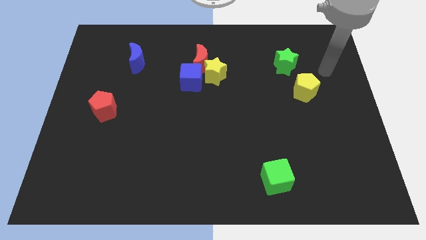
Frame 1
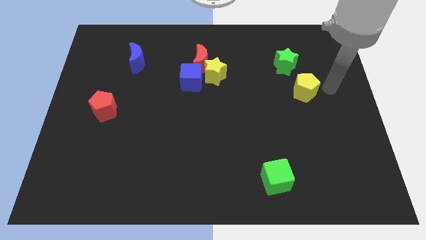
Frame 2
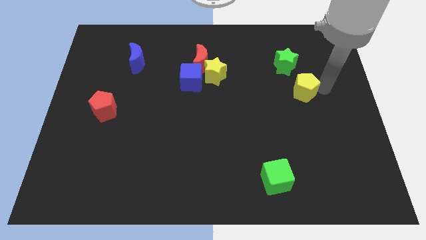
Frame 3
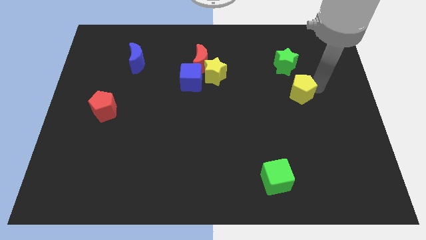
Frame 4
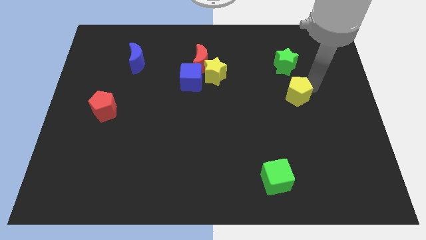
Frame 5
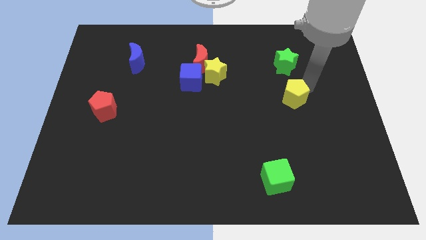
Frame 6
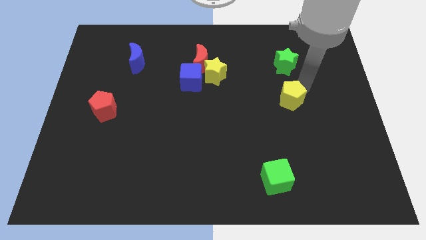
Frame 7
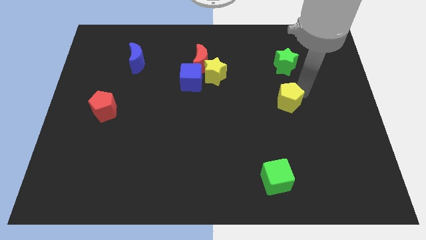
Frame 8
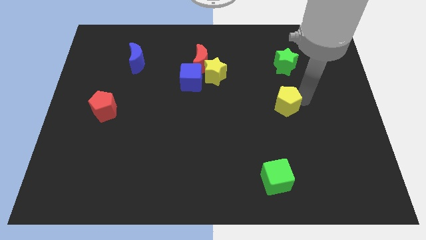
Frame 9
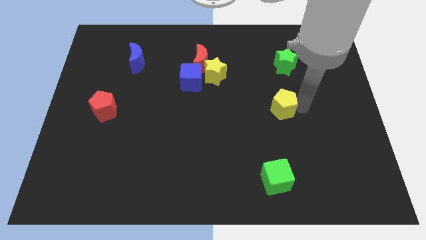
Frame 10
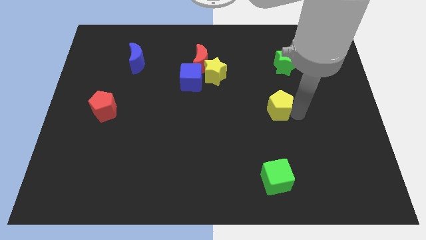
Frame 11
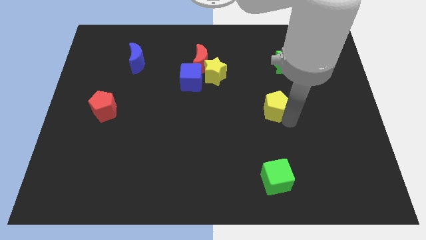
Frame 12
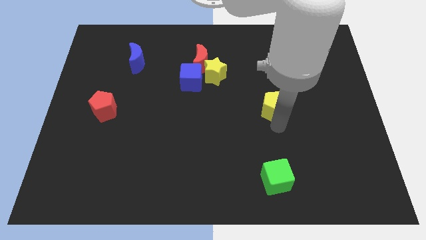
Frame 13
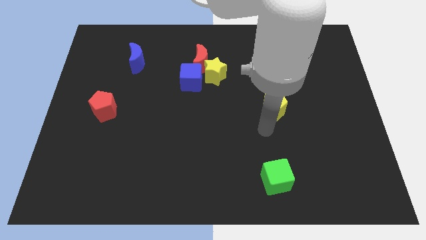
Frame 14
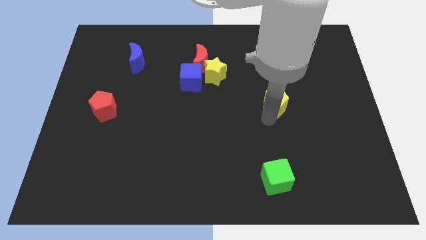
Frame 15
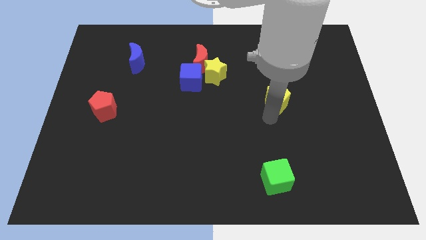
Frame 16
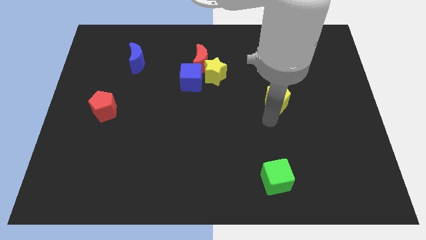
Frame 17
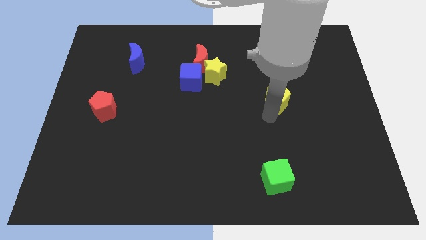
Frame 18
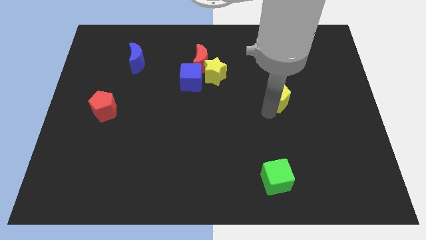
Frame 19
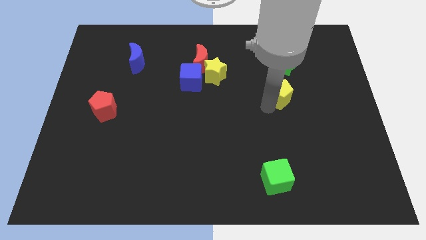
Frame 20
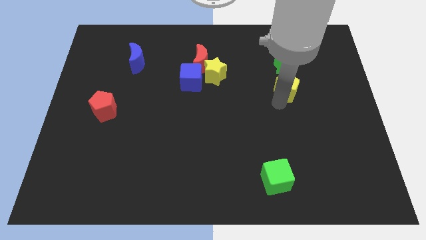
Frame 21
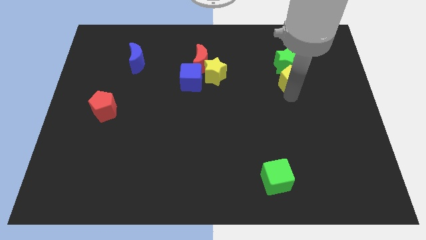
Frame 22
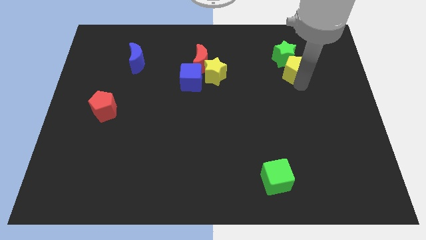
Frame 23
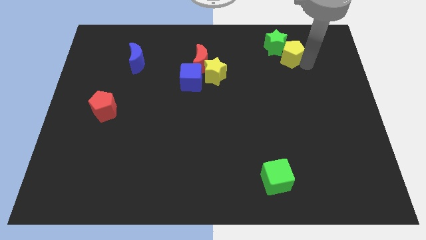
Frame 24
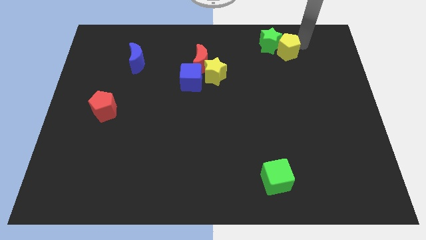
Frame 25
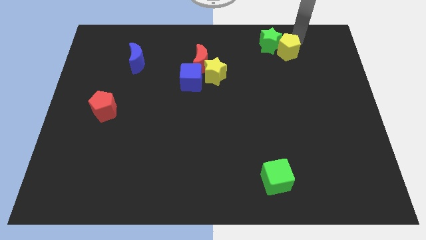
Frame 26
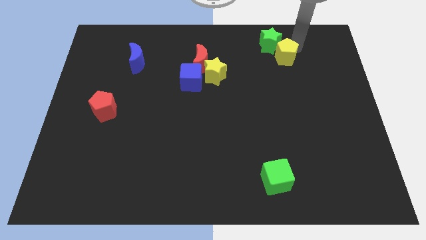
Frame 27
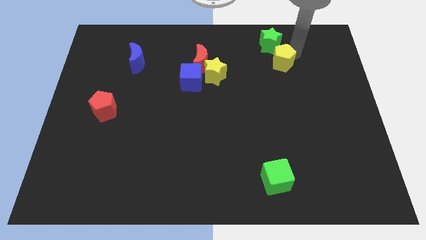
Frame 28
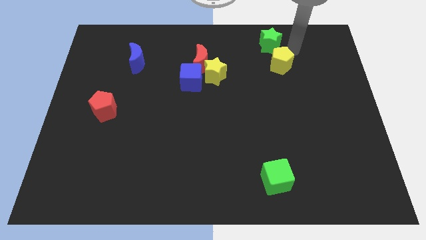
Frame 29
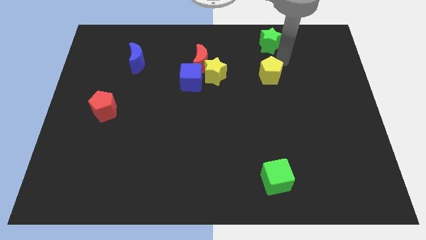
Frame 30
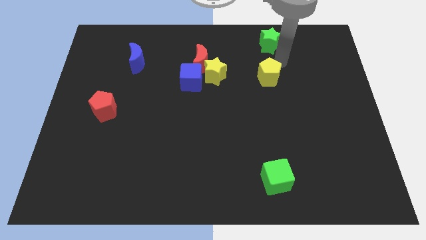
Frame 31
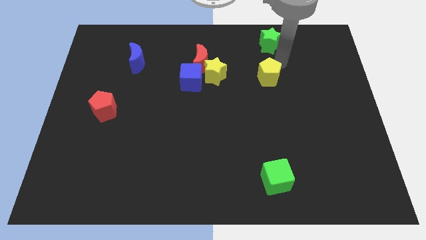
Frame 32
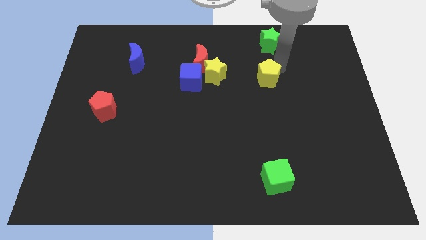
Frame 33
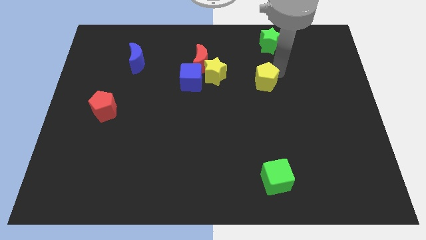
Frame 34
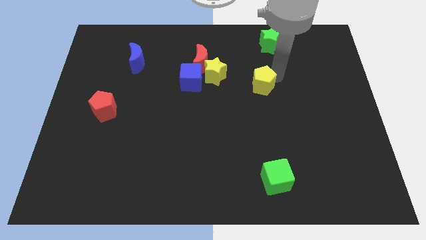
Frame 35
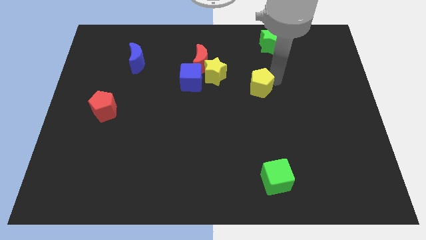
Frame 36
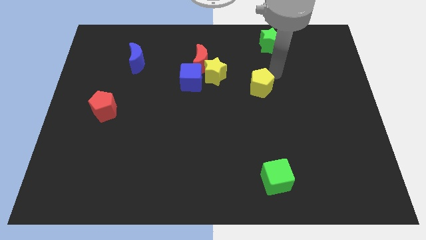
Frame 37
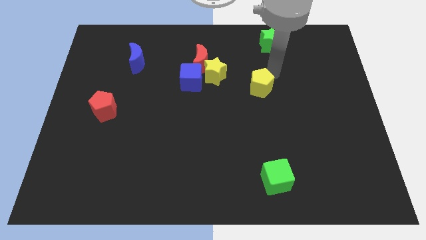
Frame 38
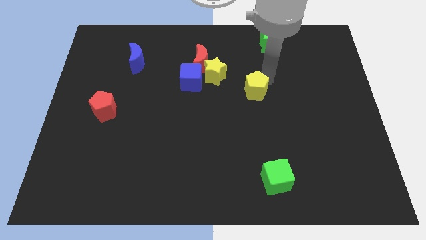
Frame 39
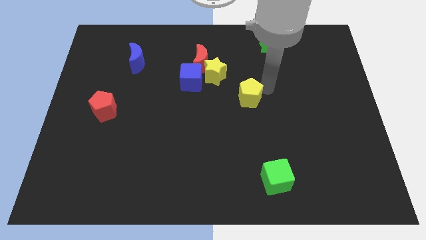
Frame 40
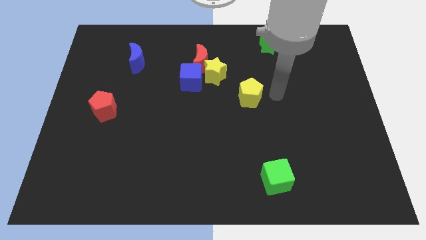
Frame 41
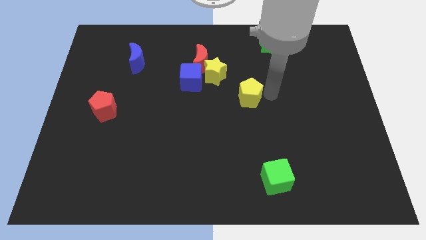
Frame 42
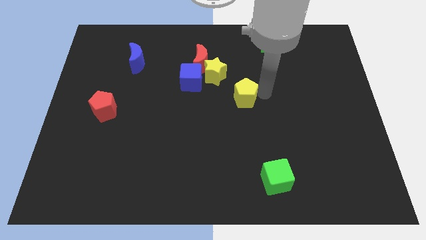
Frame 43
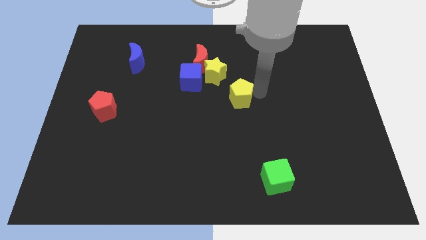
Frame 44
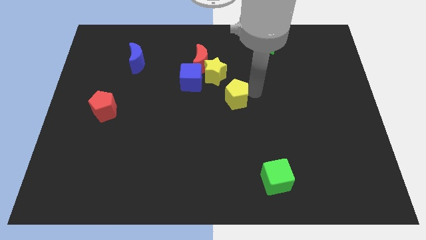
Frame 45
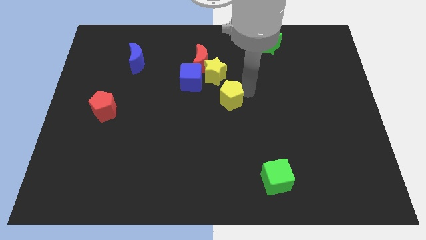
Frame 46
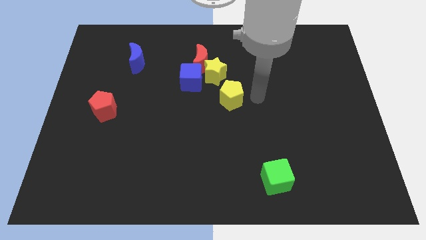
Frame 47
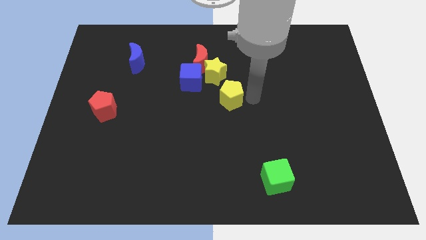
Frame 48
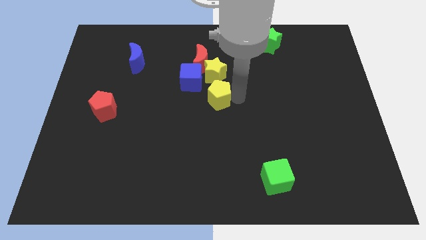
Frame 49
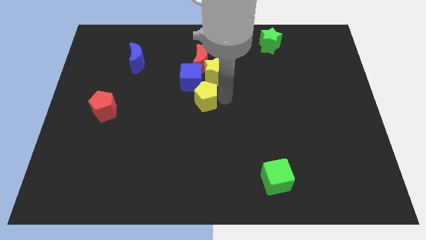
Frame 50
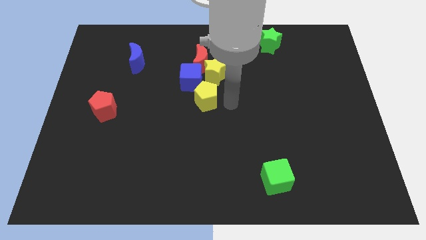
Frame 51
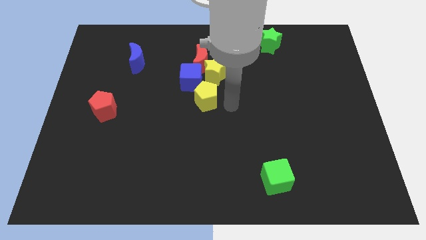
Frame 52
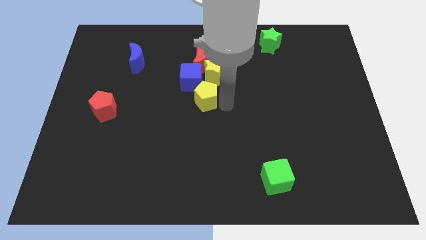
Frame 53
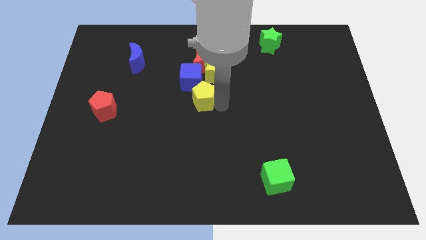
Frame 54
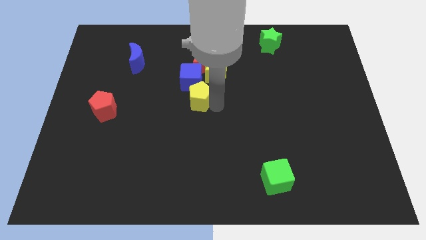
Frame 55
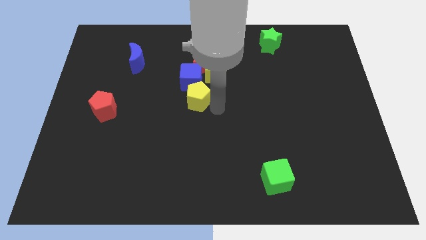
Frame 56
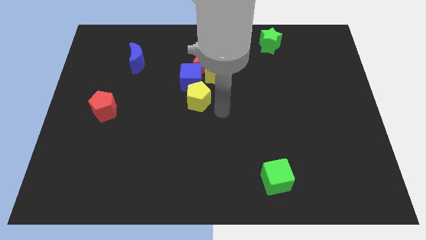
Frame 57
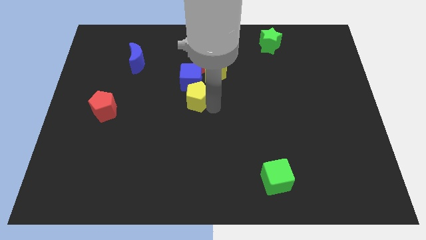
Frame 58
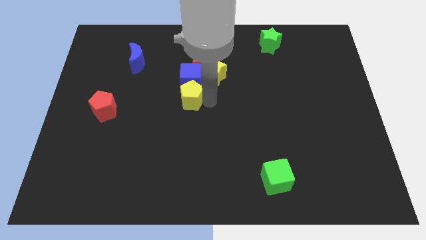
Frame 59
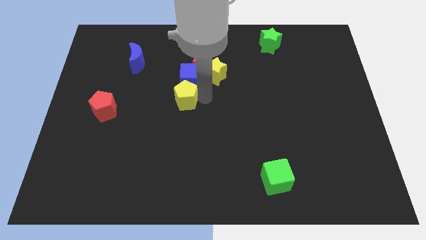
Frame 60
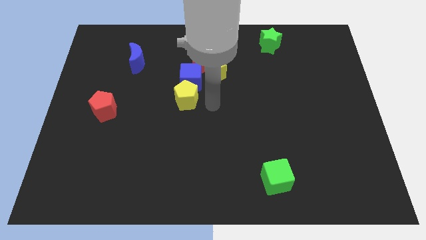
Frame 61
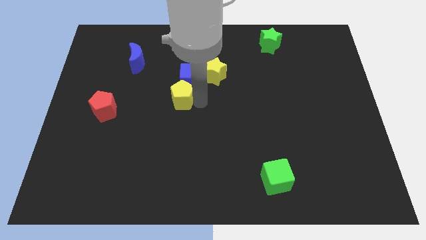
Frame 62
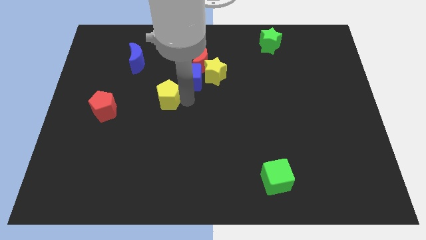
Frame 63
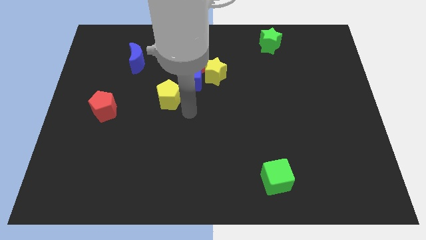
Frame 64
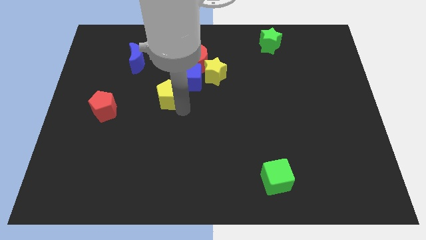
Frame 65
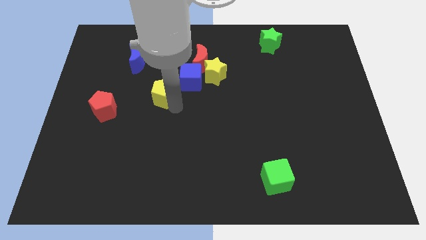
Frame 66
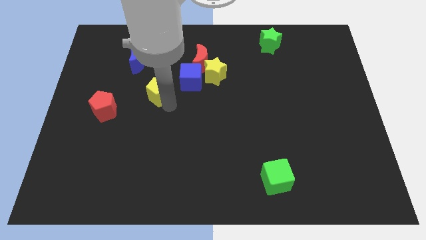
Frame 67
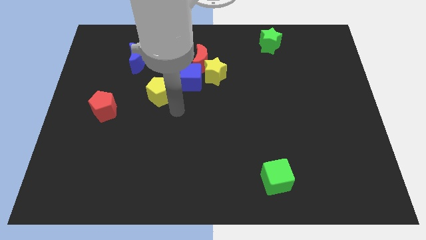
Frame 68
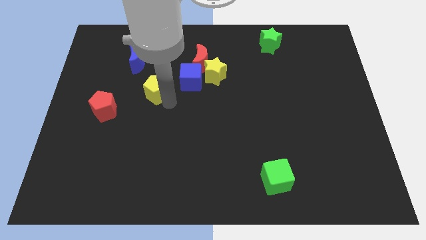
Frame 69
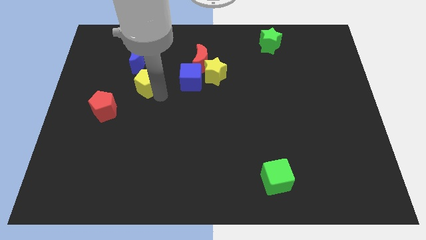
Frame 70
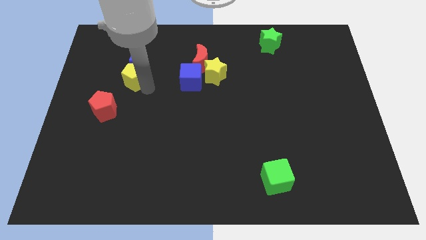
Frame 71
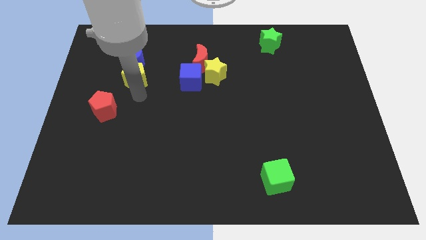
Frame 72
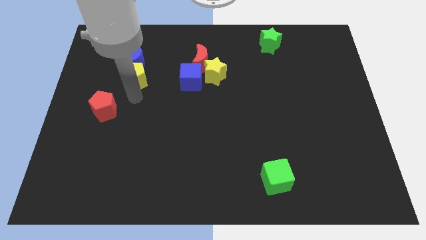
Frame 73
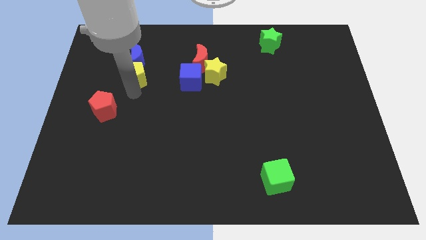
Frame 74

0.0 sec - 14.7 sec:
slide the yellow pentagon close to the blue moon
